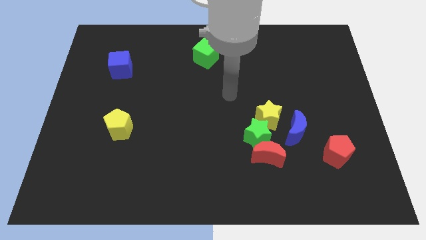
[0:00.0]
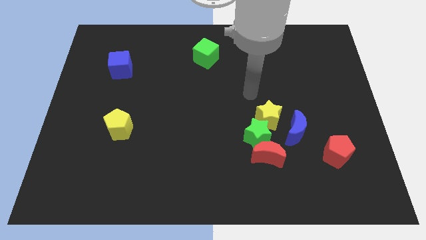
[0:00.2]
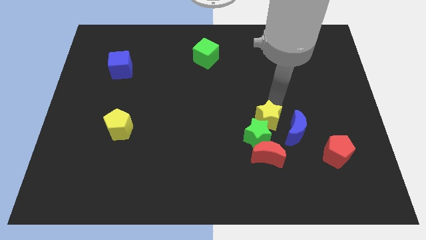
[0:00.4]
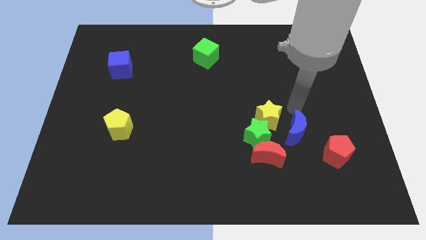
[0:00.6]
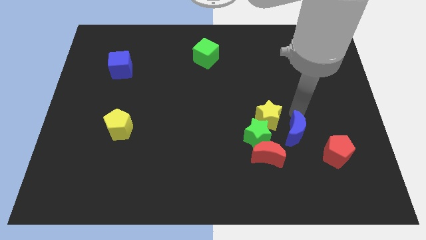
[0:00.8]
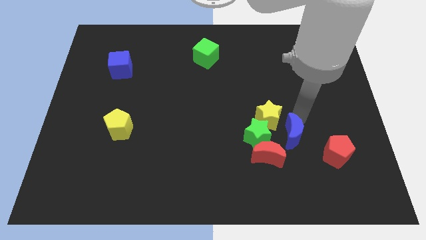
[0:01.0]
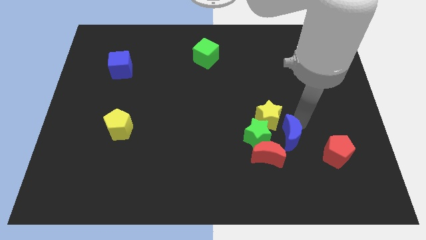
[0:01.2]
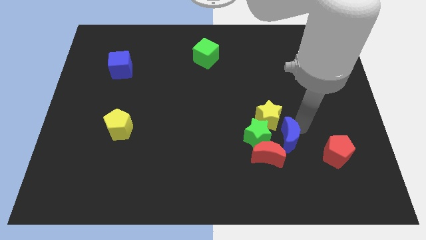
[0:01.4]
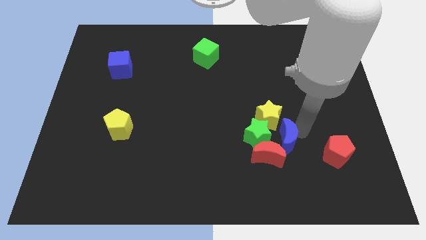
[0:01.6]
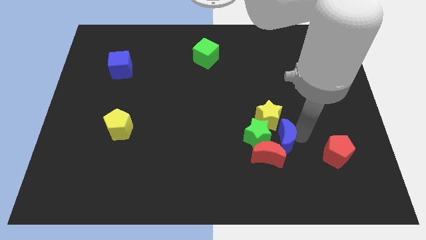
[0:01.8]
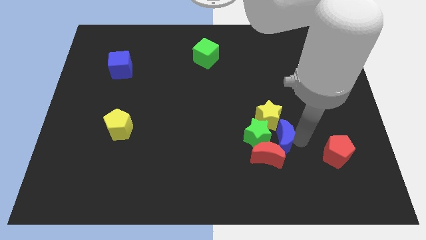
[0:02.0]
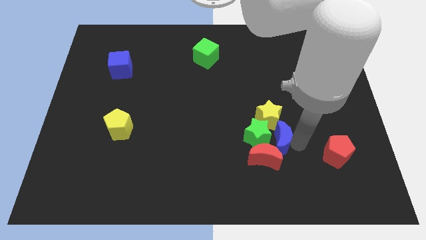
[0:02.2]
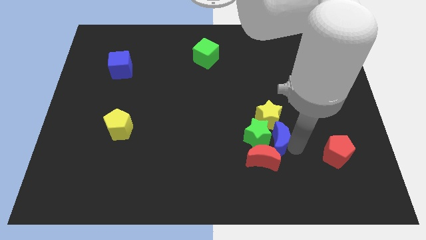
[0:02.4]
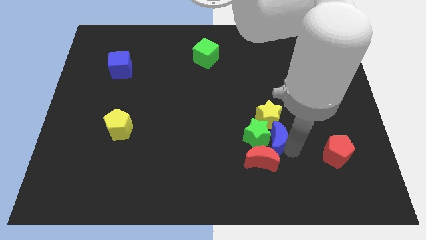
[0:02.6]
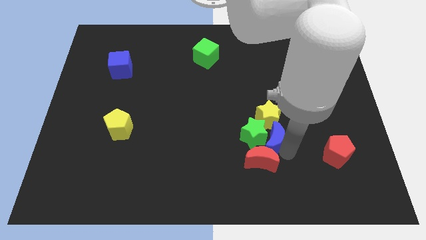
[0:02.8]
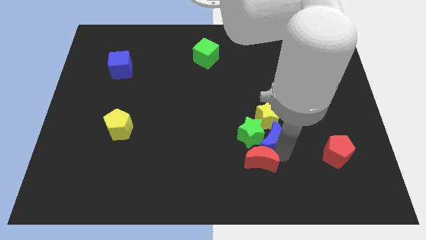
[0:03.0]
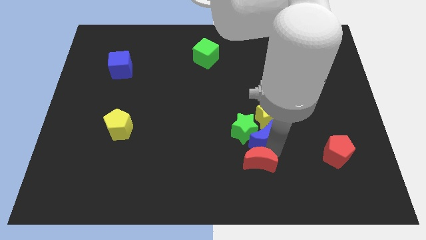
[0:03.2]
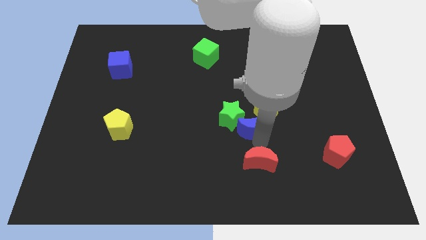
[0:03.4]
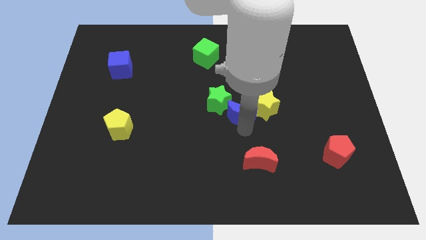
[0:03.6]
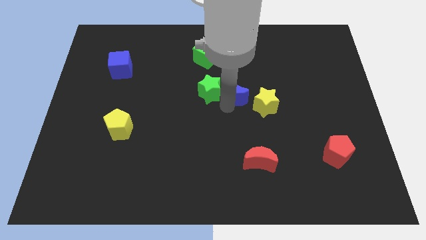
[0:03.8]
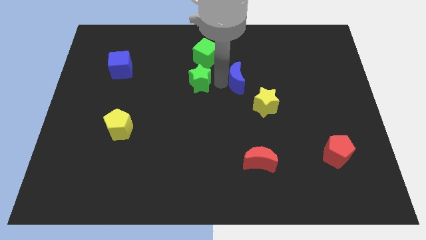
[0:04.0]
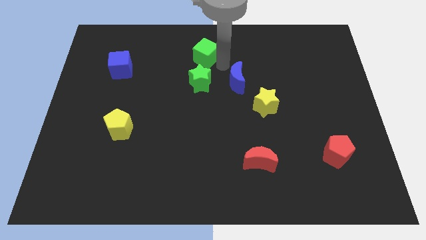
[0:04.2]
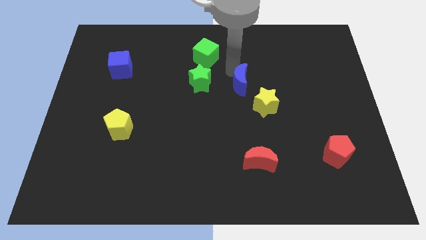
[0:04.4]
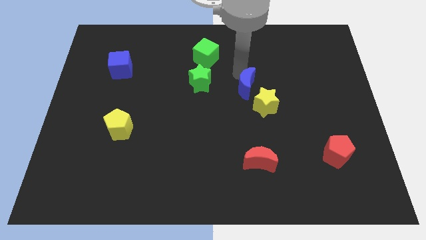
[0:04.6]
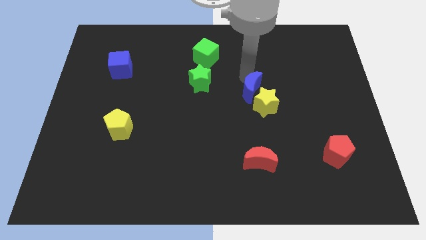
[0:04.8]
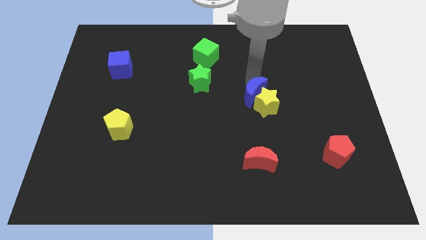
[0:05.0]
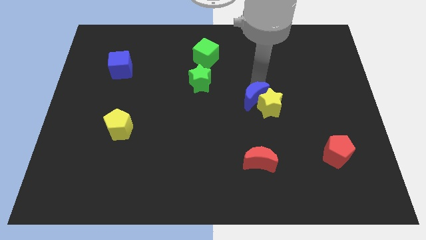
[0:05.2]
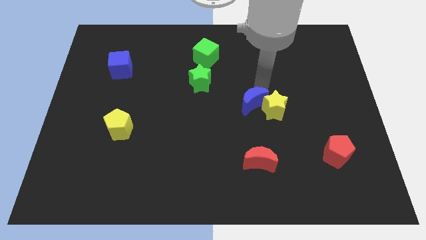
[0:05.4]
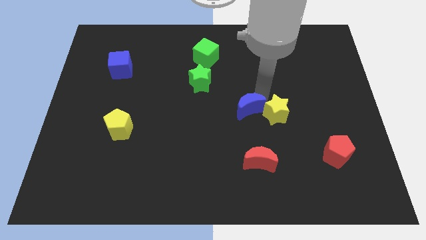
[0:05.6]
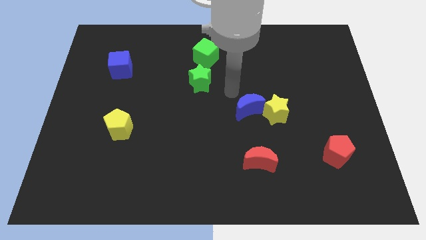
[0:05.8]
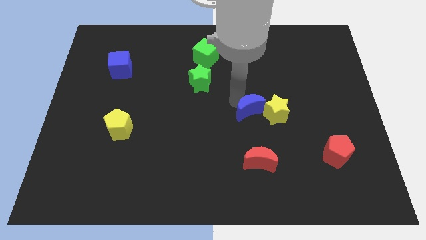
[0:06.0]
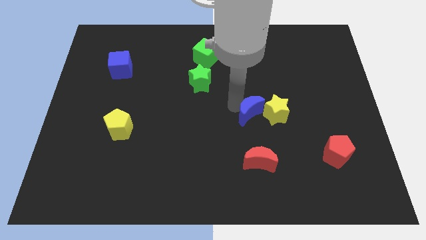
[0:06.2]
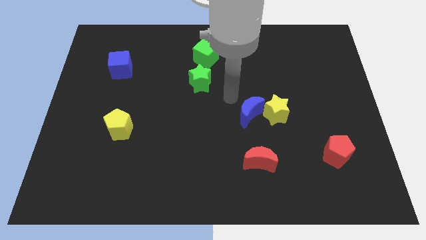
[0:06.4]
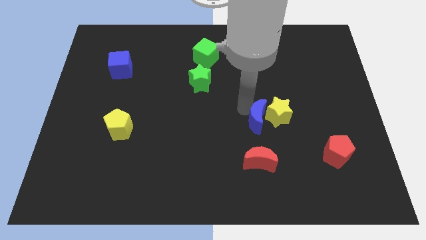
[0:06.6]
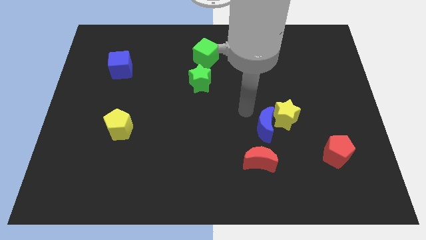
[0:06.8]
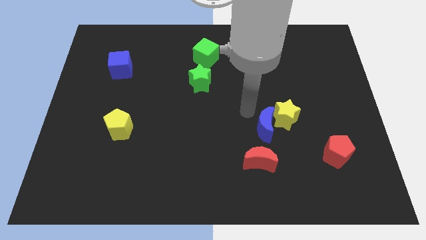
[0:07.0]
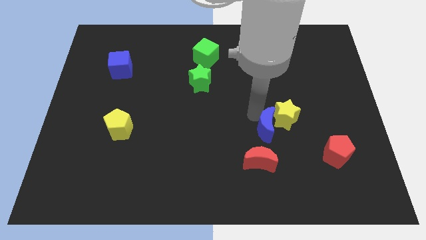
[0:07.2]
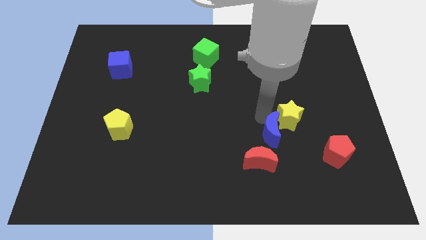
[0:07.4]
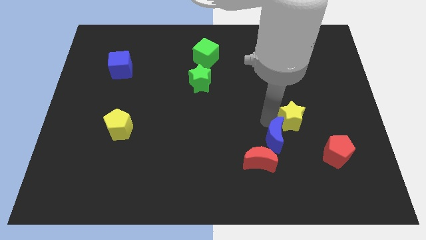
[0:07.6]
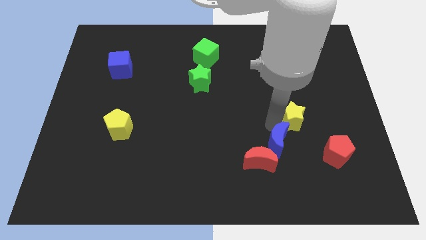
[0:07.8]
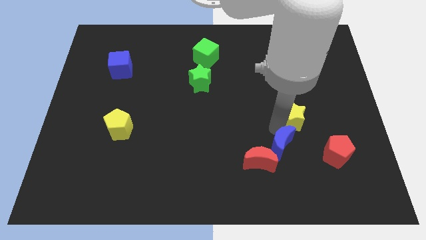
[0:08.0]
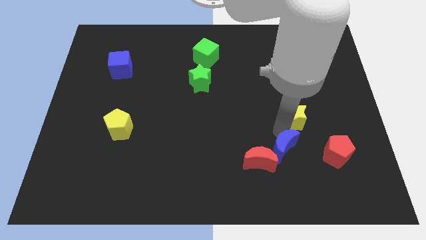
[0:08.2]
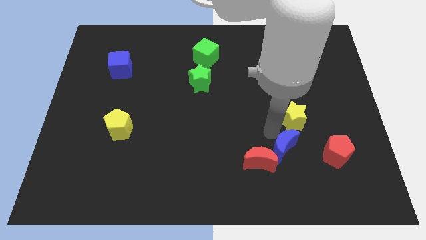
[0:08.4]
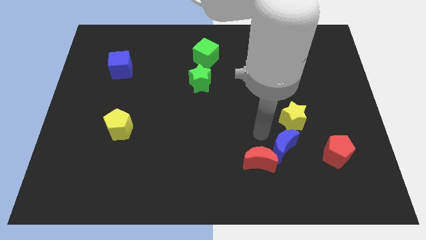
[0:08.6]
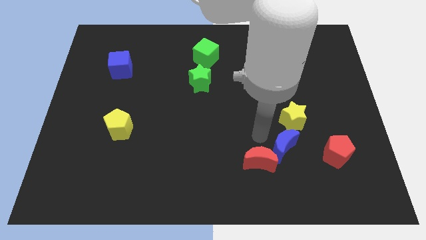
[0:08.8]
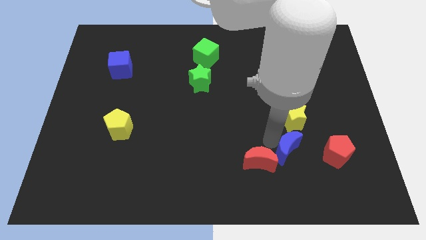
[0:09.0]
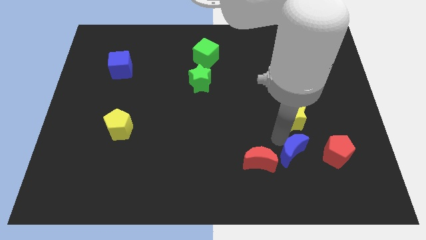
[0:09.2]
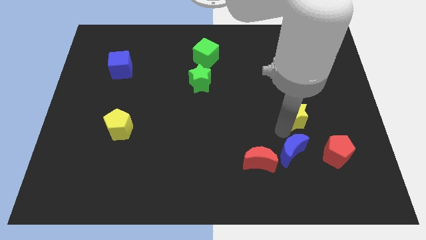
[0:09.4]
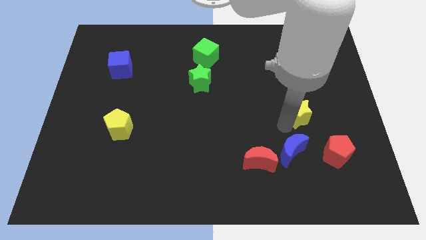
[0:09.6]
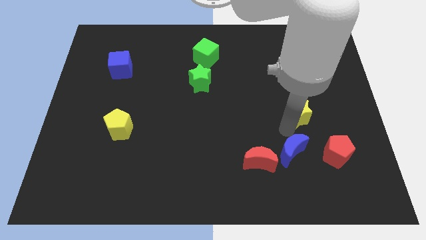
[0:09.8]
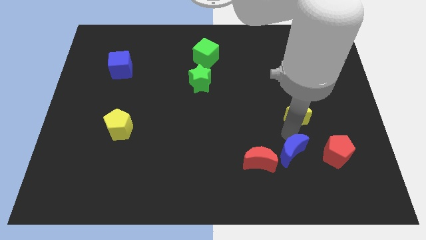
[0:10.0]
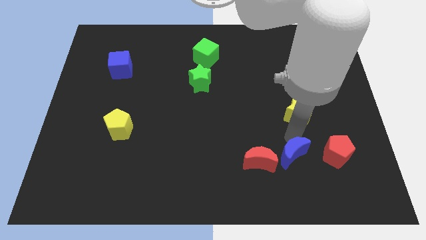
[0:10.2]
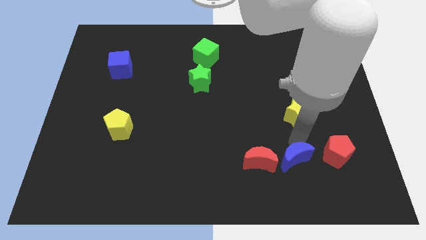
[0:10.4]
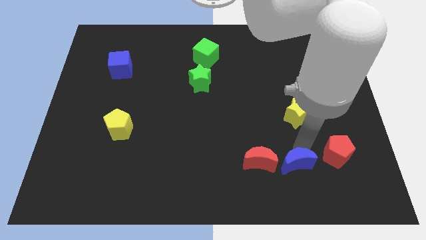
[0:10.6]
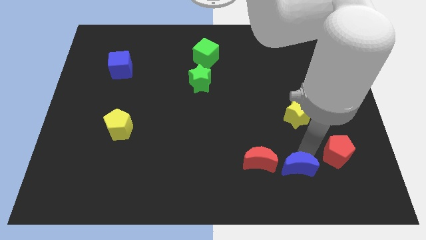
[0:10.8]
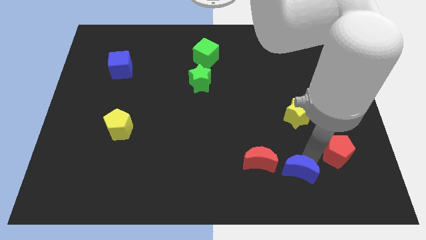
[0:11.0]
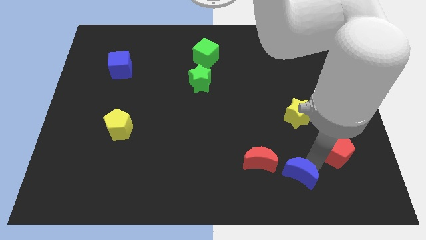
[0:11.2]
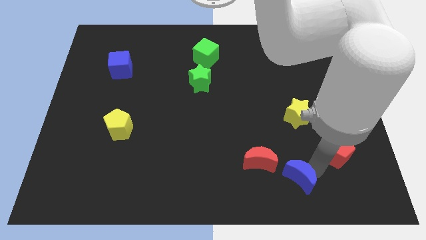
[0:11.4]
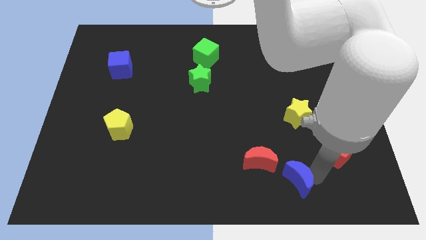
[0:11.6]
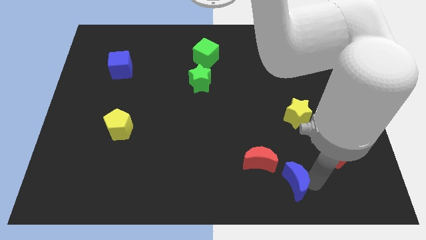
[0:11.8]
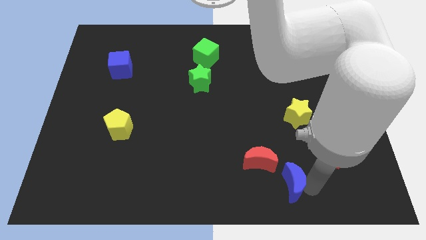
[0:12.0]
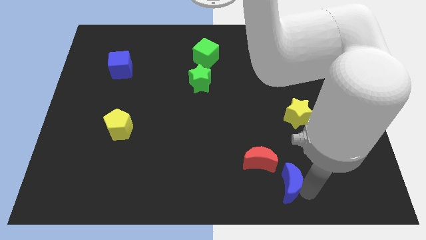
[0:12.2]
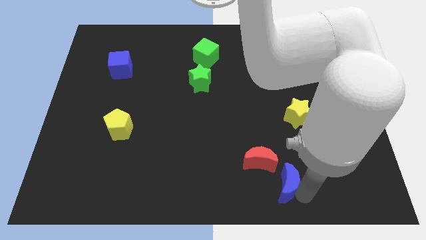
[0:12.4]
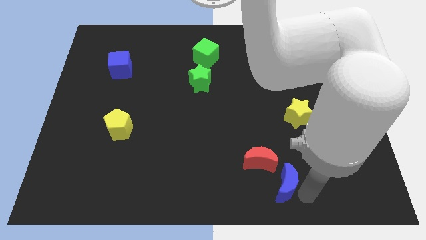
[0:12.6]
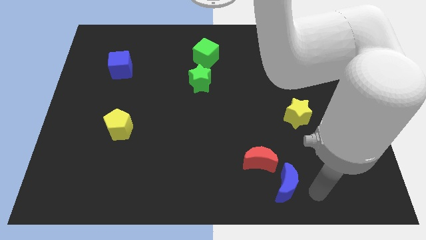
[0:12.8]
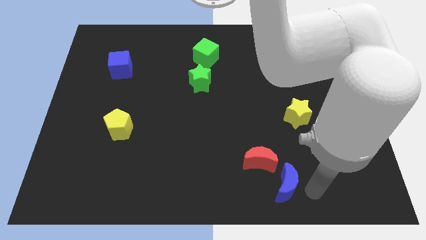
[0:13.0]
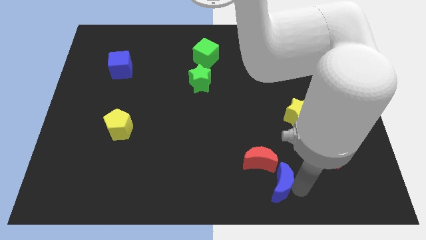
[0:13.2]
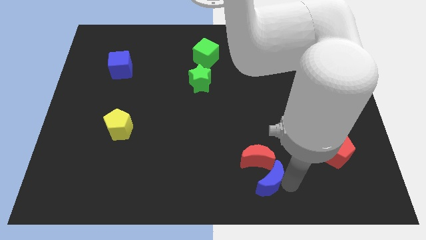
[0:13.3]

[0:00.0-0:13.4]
put the blue moon to the bottom side
